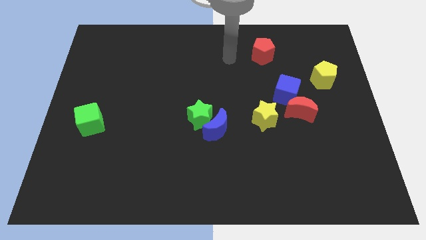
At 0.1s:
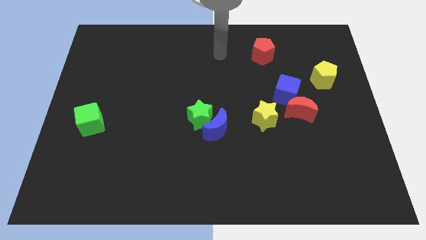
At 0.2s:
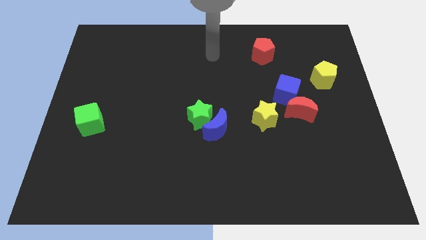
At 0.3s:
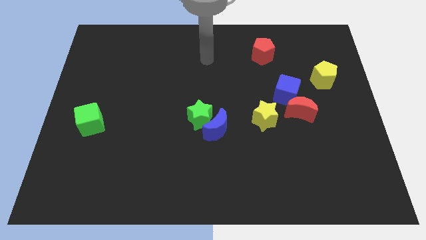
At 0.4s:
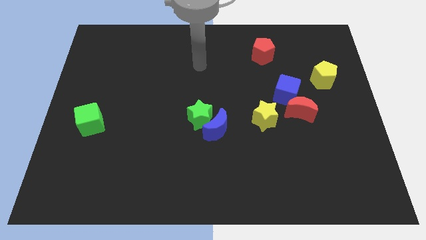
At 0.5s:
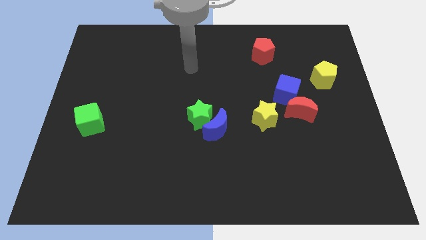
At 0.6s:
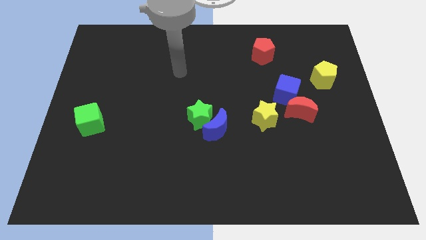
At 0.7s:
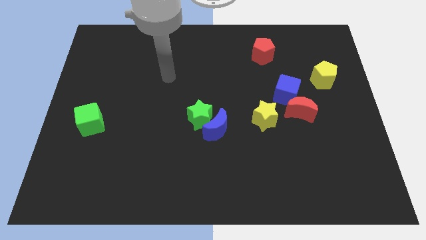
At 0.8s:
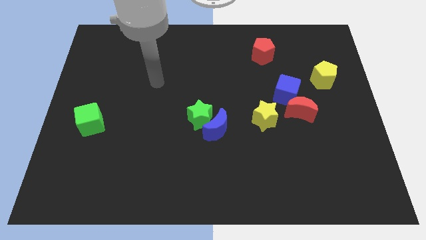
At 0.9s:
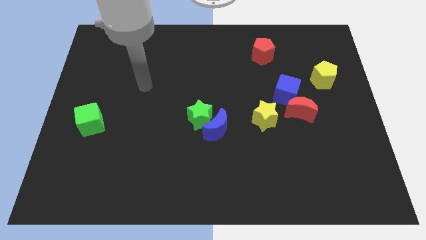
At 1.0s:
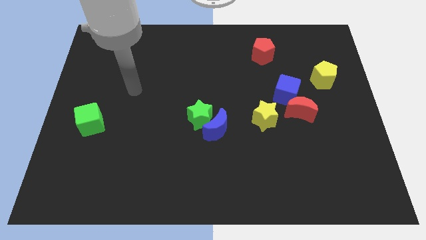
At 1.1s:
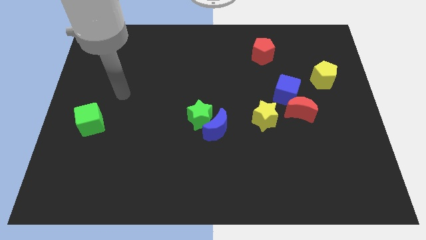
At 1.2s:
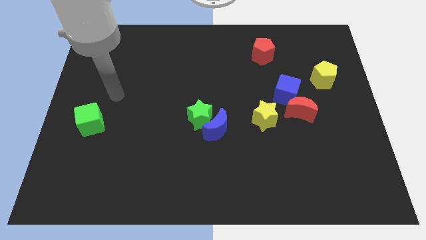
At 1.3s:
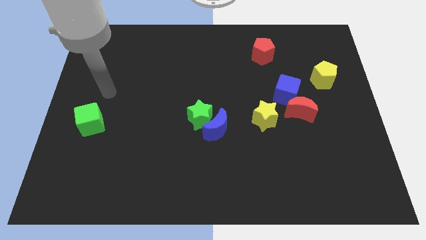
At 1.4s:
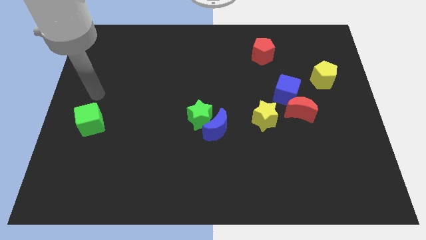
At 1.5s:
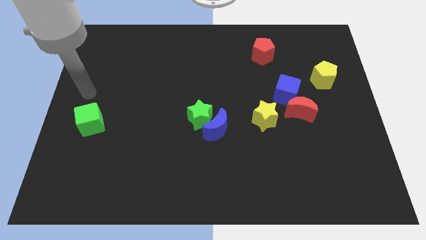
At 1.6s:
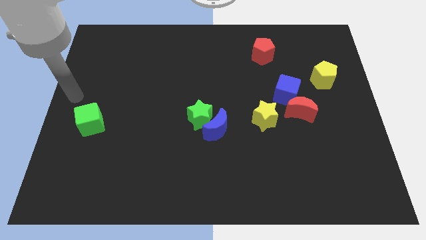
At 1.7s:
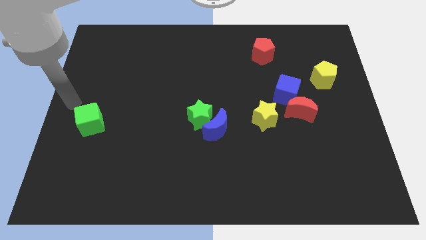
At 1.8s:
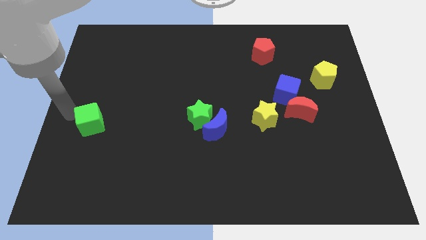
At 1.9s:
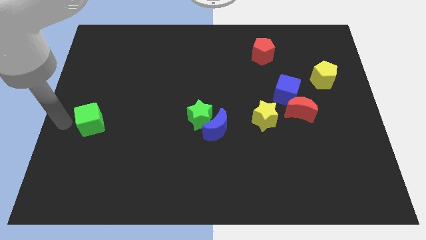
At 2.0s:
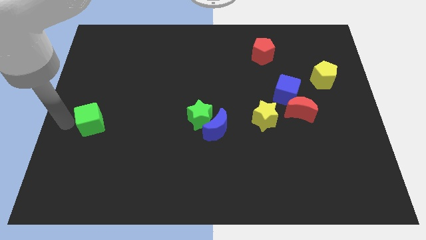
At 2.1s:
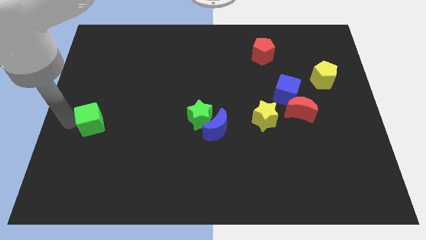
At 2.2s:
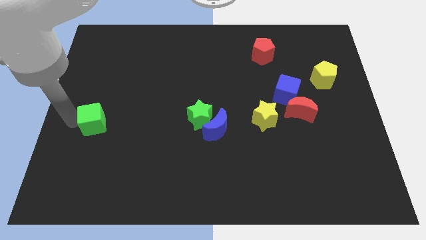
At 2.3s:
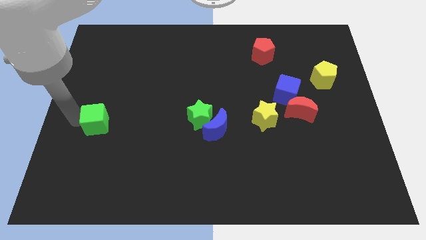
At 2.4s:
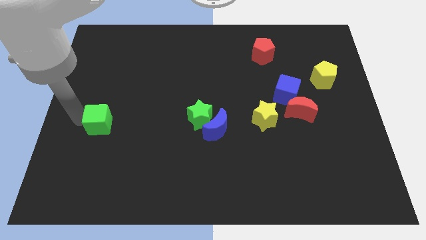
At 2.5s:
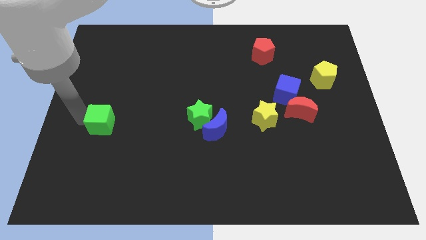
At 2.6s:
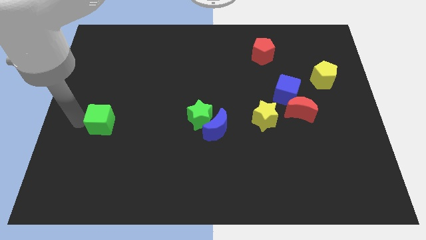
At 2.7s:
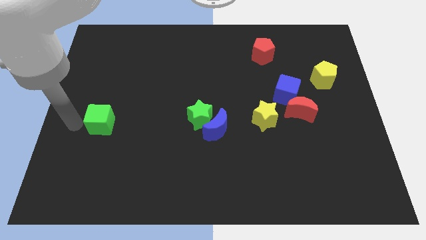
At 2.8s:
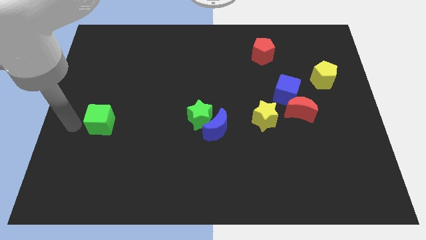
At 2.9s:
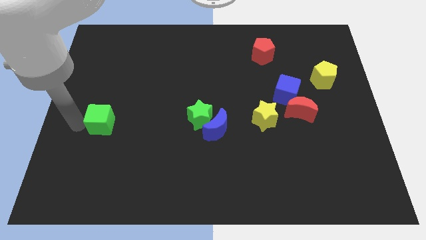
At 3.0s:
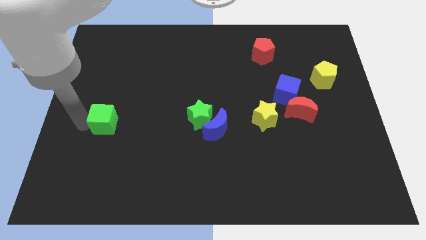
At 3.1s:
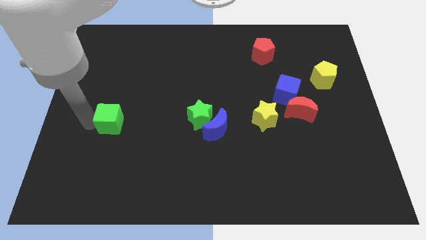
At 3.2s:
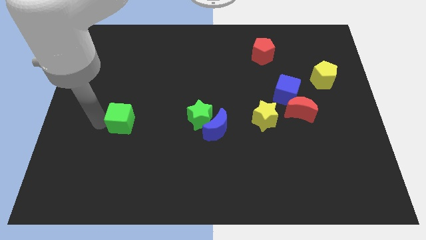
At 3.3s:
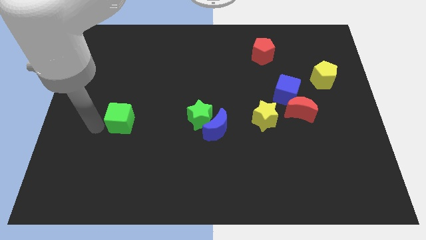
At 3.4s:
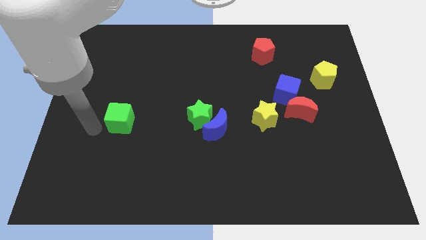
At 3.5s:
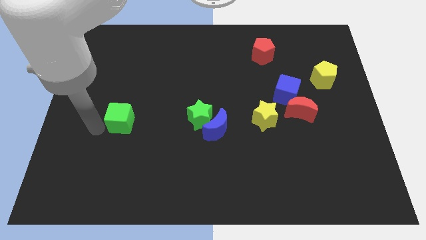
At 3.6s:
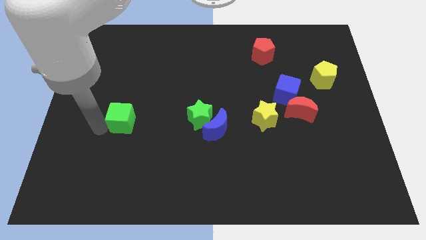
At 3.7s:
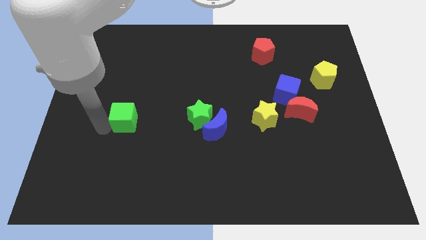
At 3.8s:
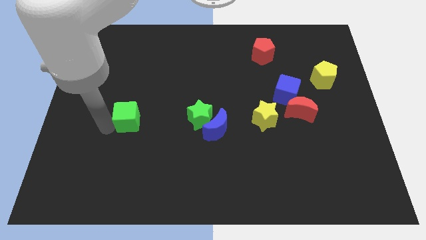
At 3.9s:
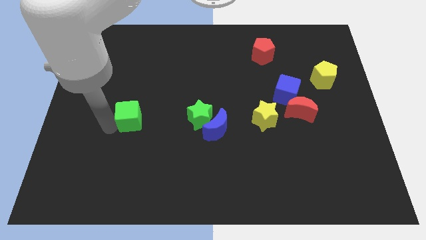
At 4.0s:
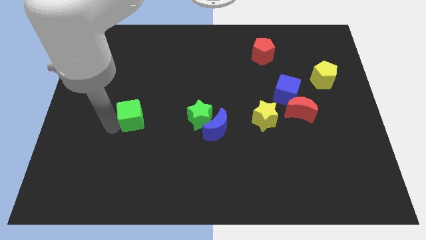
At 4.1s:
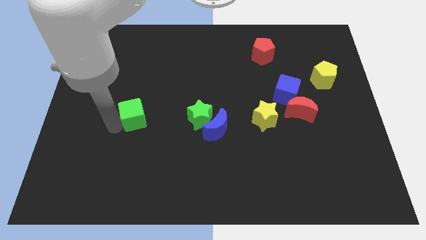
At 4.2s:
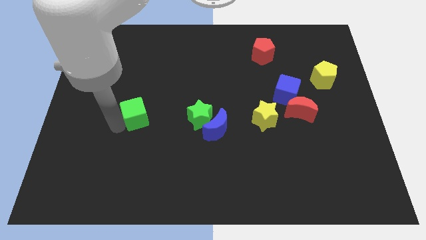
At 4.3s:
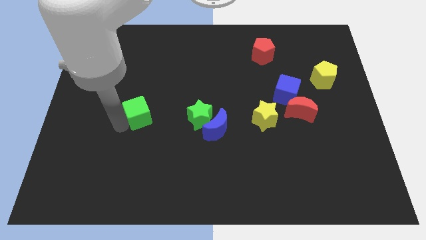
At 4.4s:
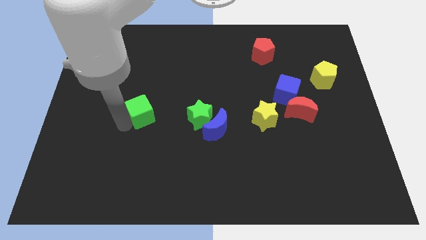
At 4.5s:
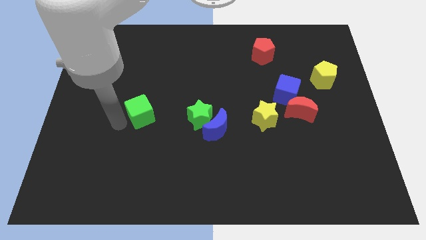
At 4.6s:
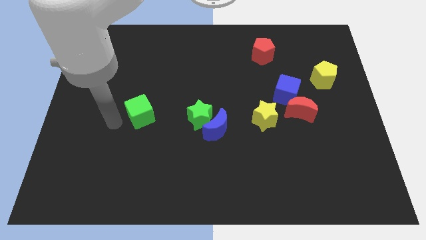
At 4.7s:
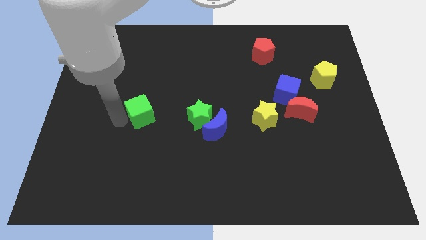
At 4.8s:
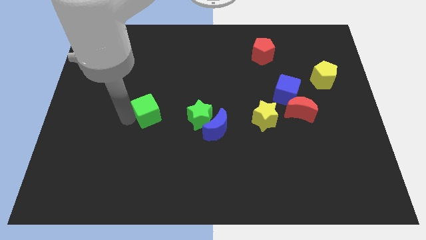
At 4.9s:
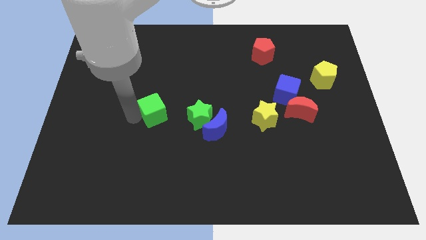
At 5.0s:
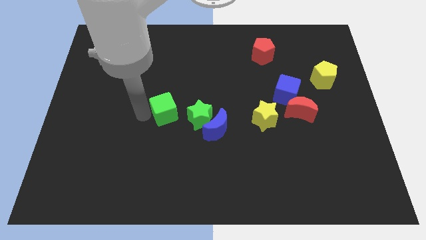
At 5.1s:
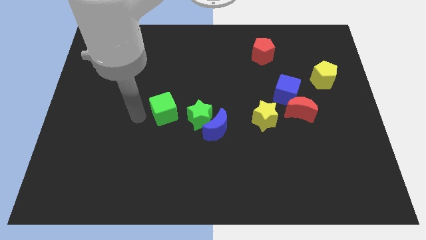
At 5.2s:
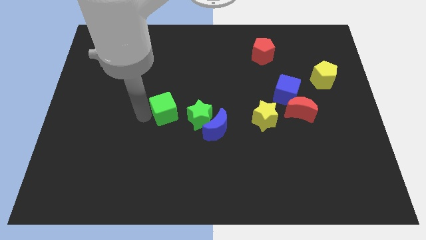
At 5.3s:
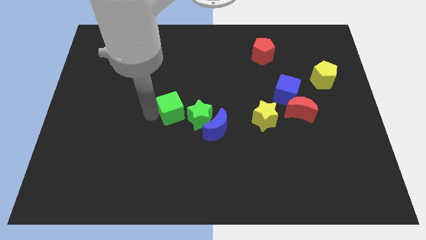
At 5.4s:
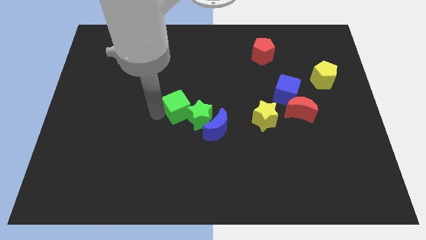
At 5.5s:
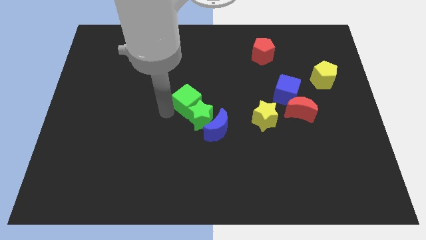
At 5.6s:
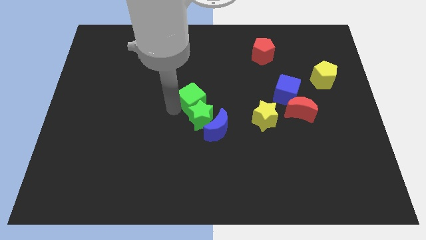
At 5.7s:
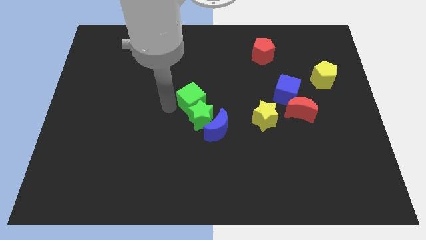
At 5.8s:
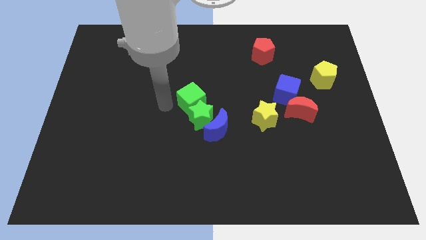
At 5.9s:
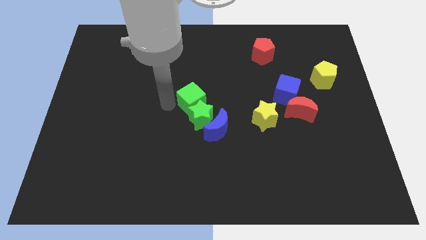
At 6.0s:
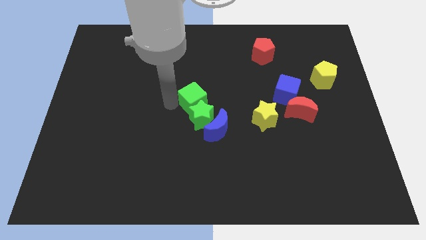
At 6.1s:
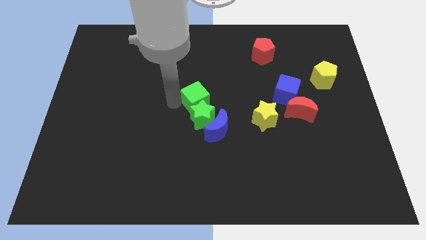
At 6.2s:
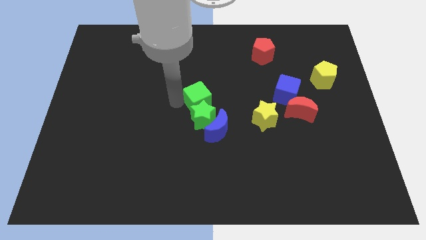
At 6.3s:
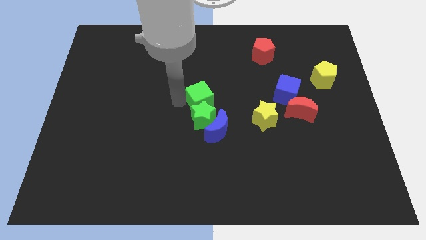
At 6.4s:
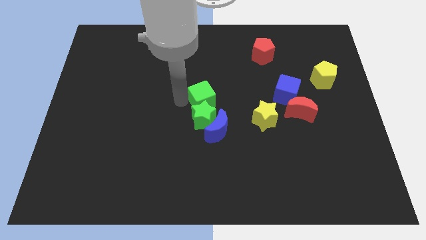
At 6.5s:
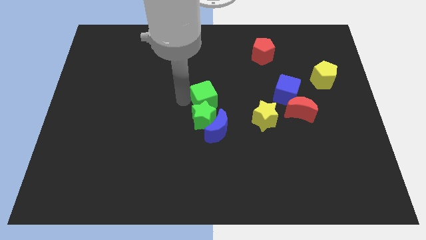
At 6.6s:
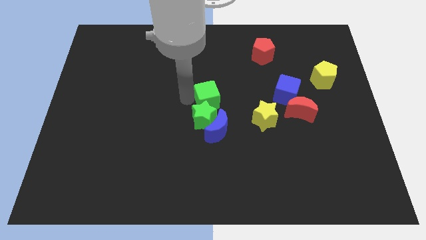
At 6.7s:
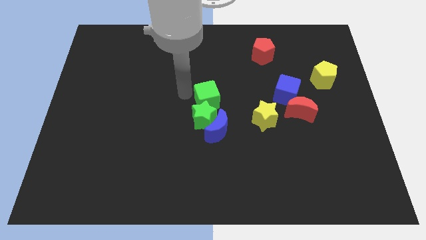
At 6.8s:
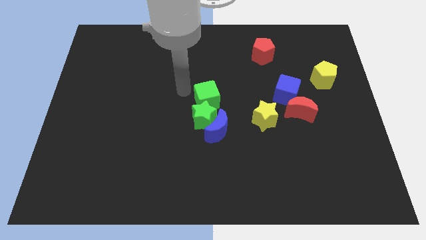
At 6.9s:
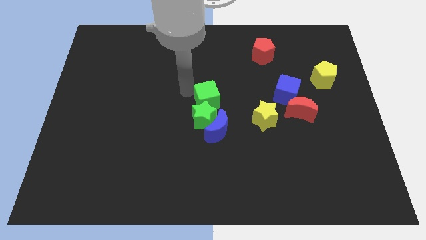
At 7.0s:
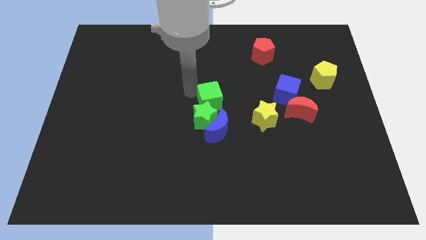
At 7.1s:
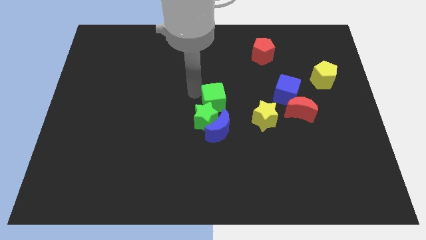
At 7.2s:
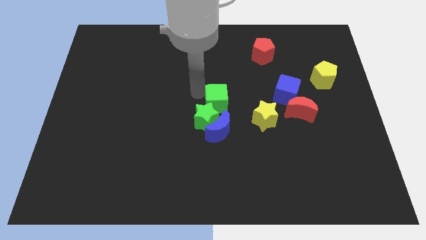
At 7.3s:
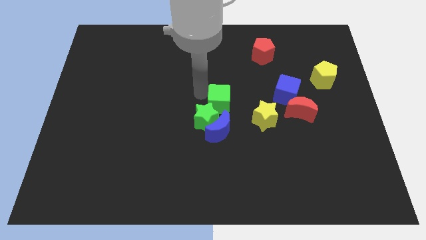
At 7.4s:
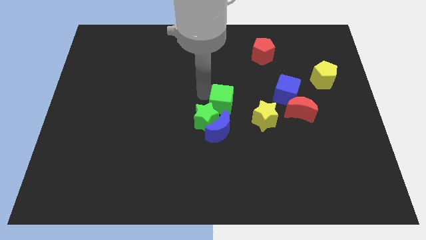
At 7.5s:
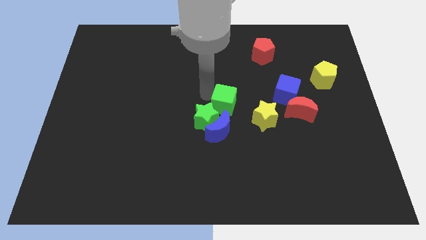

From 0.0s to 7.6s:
slide the green cube to the top right side of the blue moon
